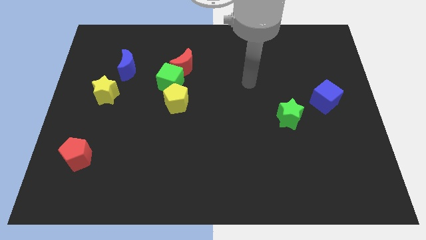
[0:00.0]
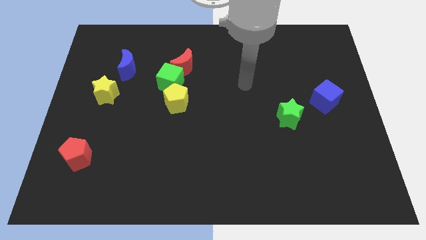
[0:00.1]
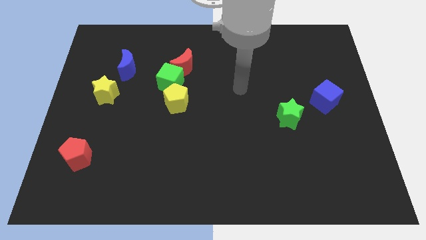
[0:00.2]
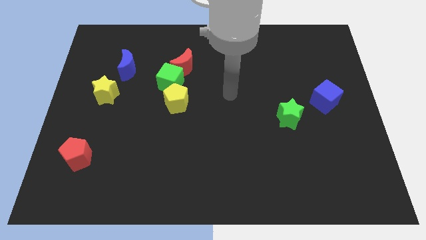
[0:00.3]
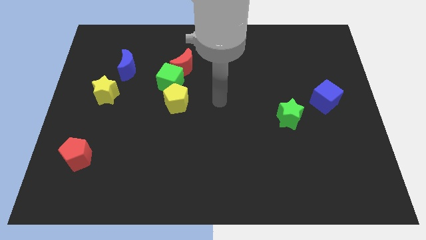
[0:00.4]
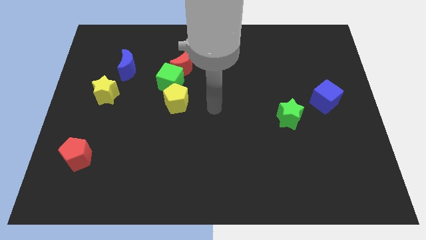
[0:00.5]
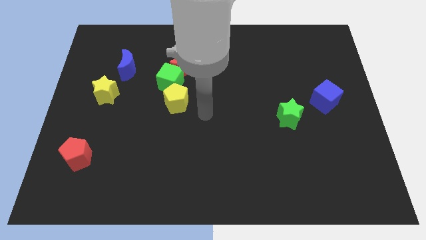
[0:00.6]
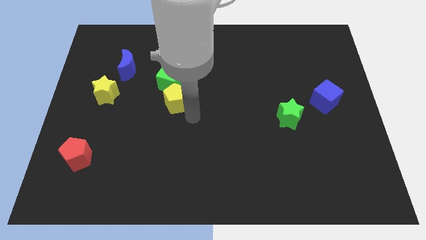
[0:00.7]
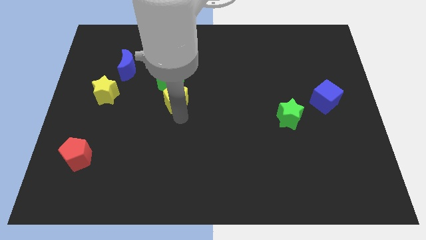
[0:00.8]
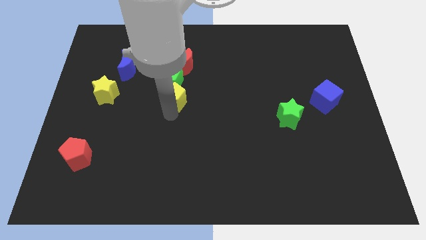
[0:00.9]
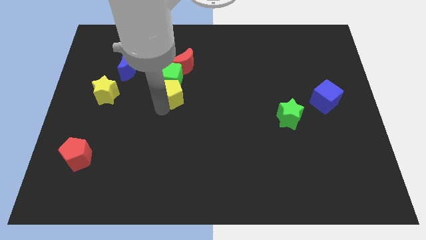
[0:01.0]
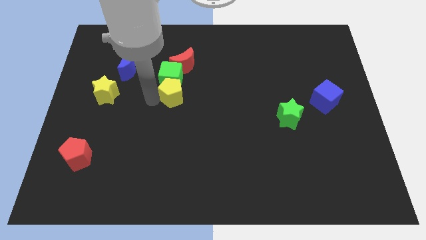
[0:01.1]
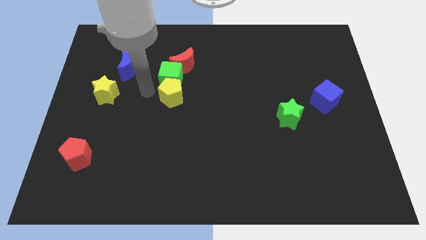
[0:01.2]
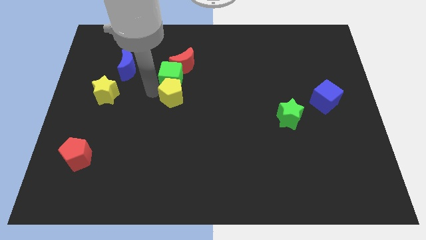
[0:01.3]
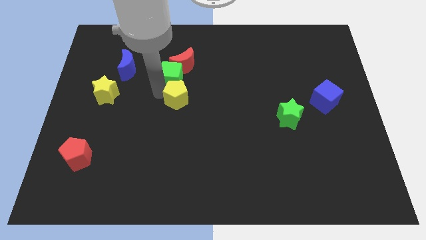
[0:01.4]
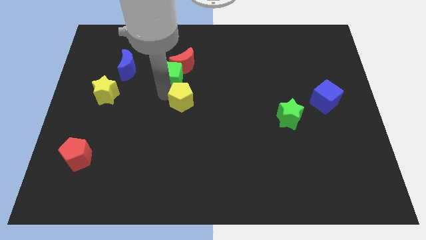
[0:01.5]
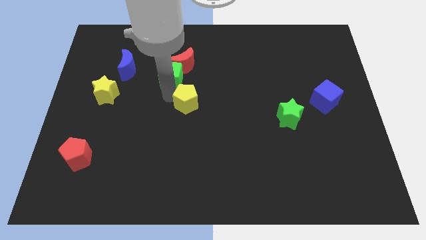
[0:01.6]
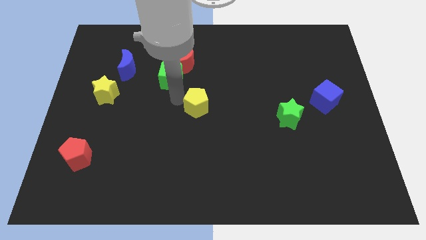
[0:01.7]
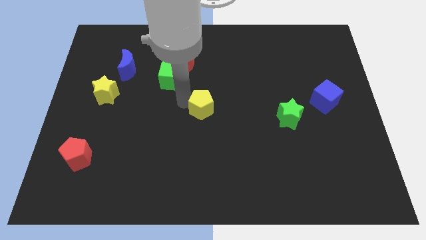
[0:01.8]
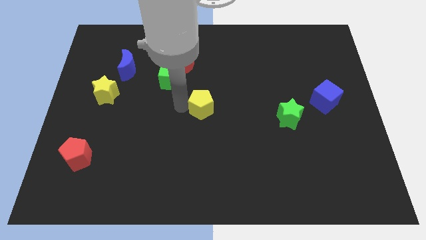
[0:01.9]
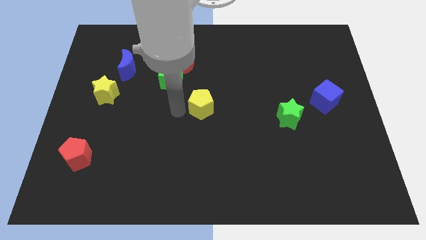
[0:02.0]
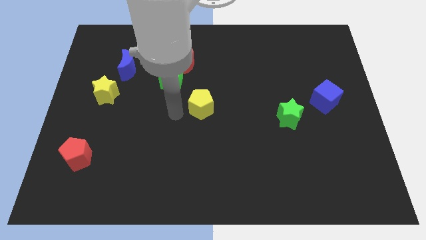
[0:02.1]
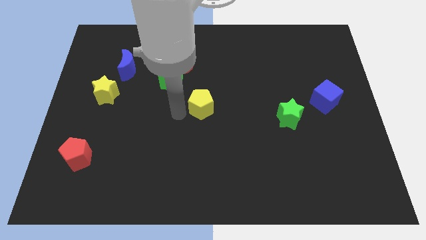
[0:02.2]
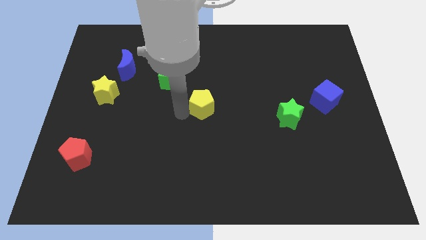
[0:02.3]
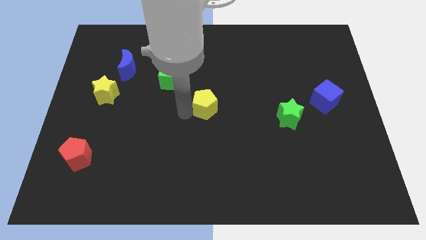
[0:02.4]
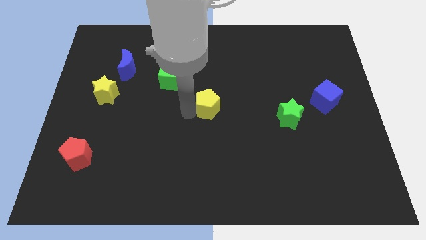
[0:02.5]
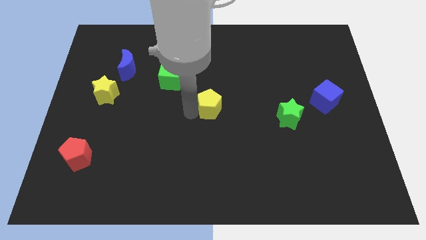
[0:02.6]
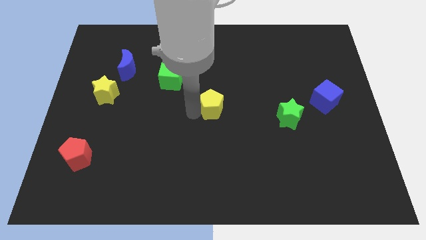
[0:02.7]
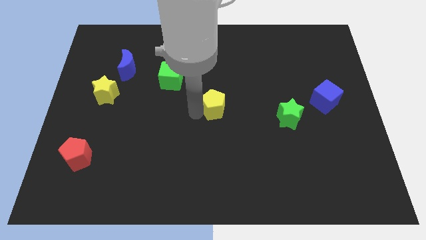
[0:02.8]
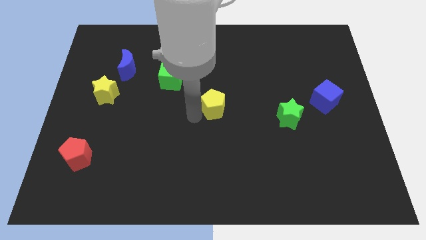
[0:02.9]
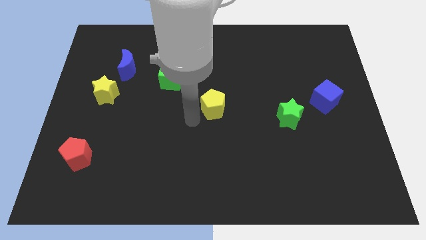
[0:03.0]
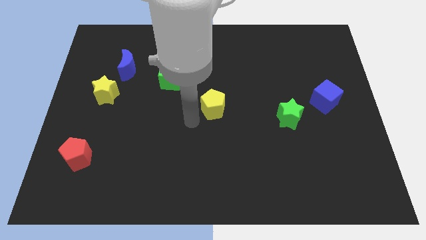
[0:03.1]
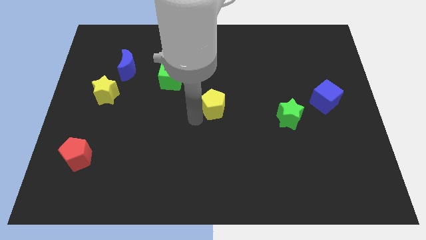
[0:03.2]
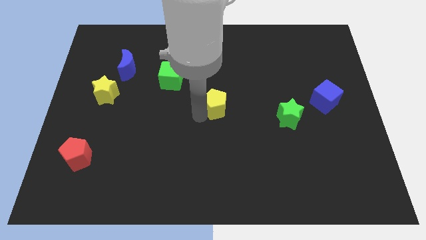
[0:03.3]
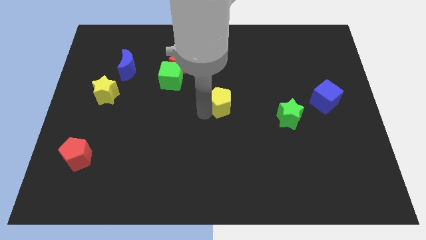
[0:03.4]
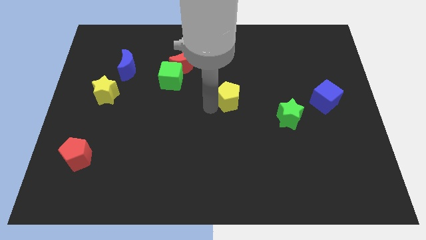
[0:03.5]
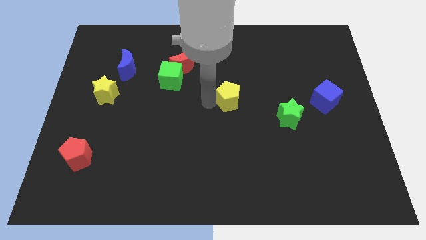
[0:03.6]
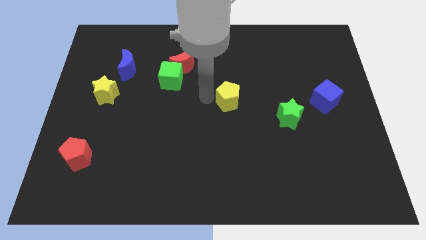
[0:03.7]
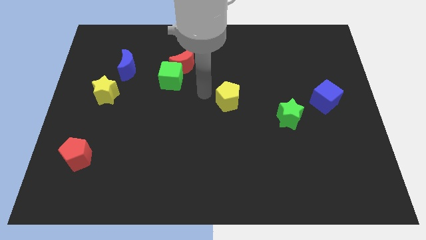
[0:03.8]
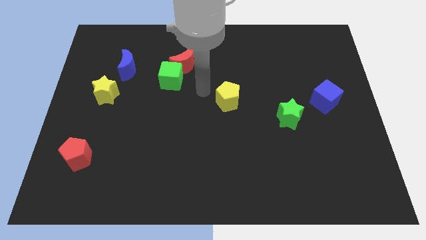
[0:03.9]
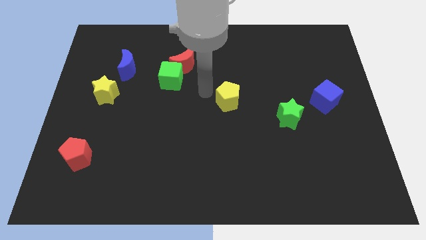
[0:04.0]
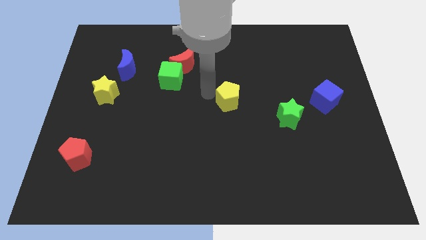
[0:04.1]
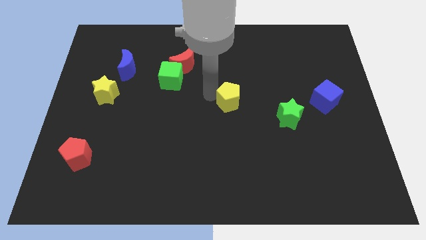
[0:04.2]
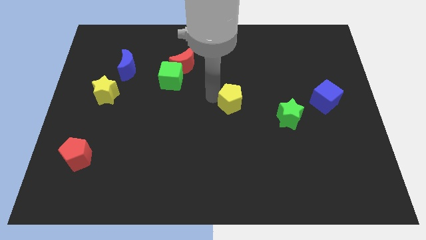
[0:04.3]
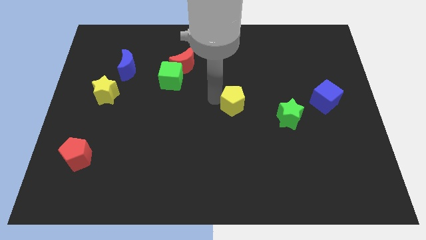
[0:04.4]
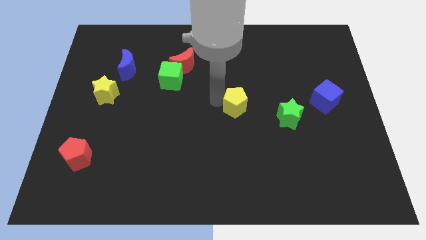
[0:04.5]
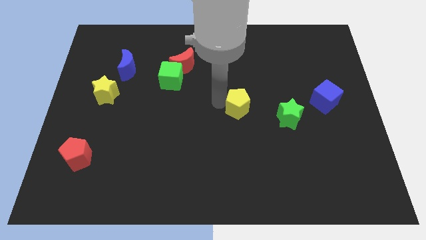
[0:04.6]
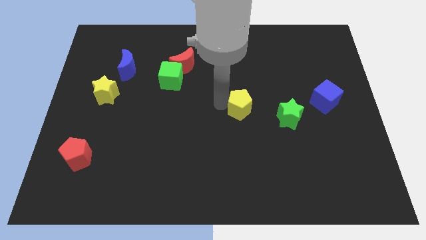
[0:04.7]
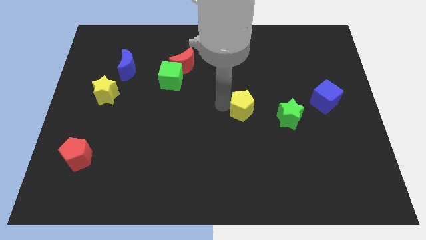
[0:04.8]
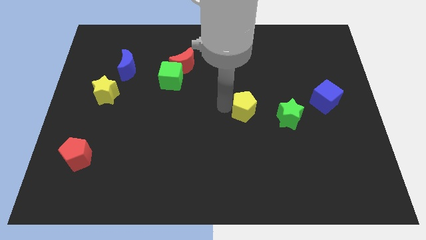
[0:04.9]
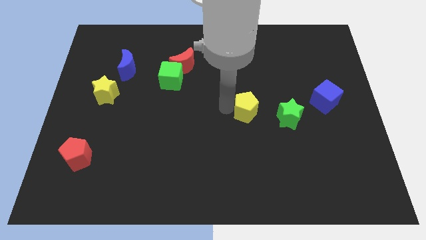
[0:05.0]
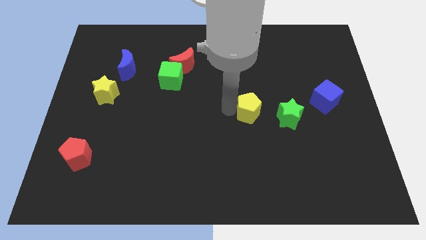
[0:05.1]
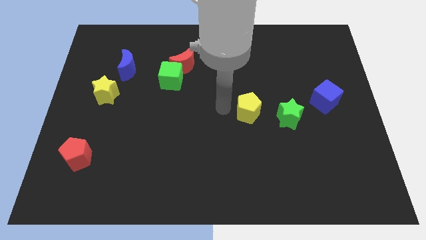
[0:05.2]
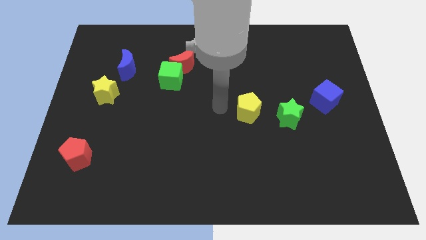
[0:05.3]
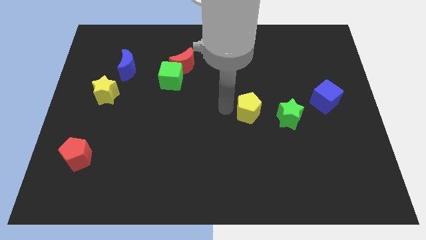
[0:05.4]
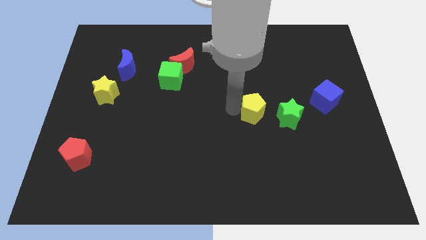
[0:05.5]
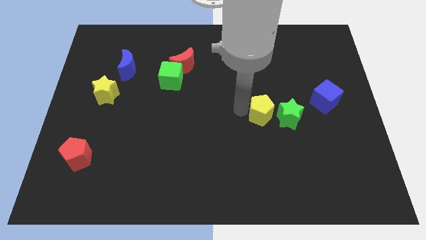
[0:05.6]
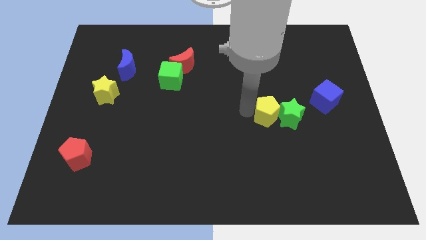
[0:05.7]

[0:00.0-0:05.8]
move the yellow pentagon close to the green star

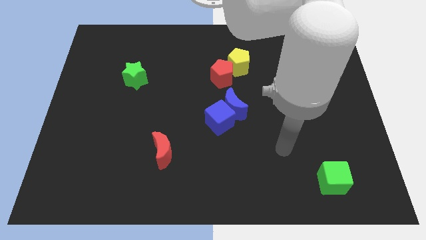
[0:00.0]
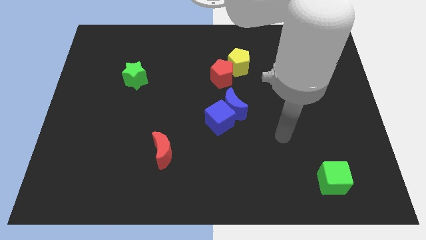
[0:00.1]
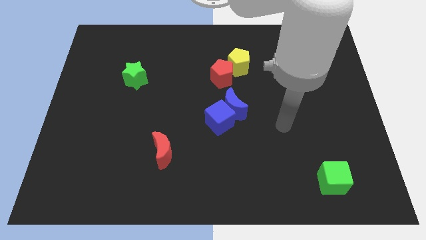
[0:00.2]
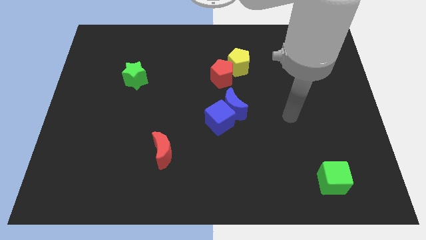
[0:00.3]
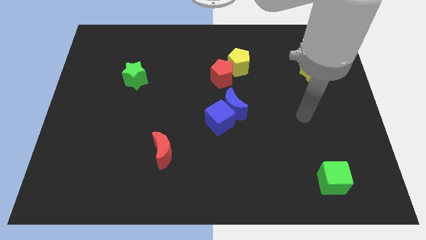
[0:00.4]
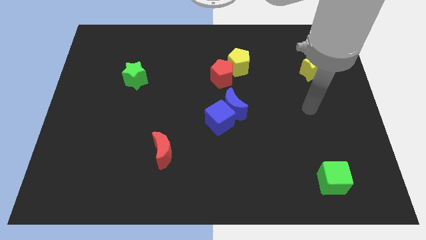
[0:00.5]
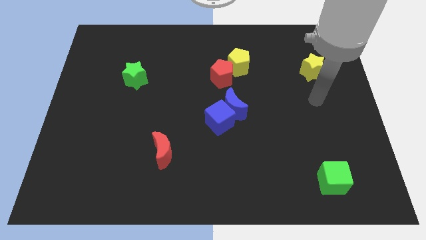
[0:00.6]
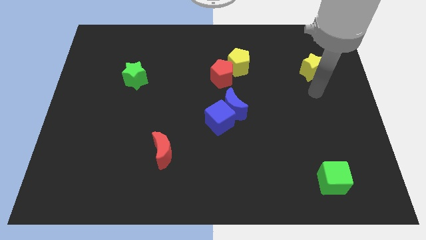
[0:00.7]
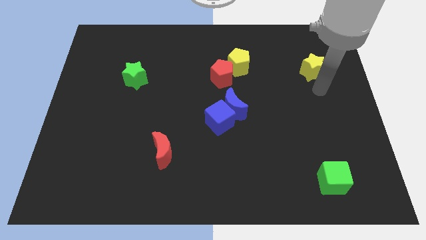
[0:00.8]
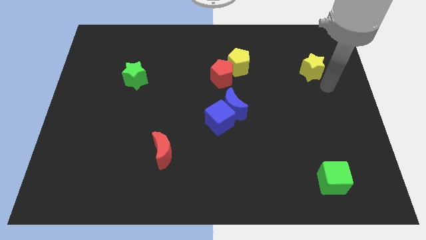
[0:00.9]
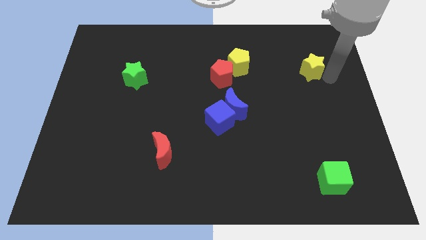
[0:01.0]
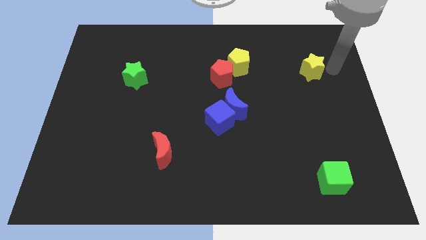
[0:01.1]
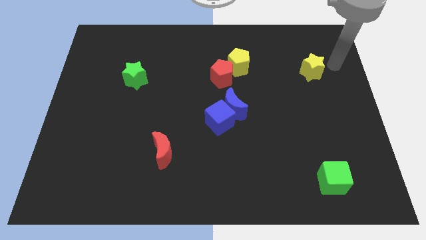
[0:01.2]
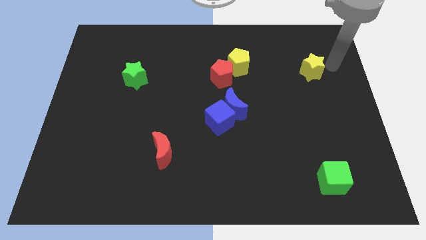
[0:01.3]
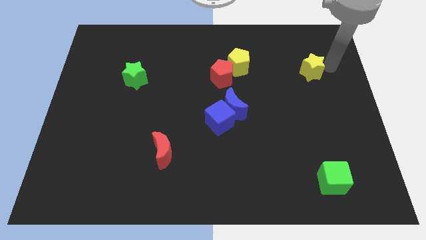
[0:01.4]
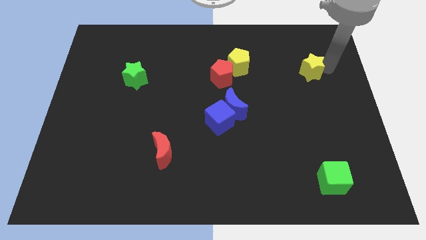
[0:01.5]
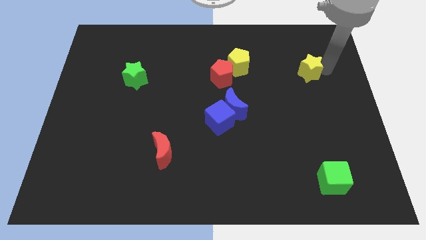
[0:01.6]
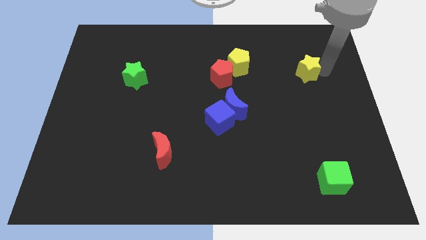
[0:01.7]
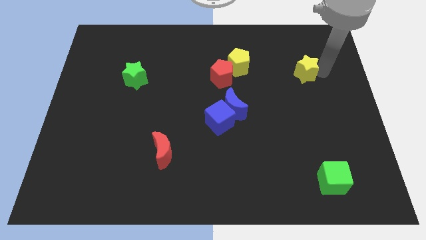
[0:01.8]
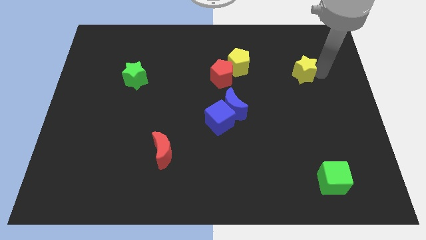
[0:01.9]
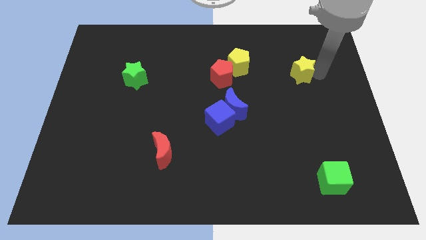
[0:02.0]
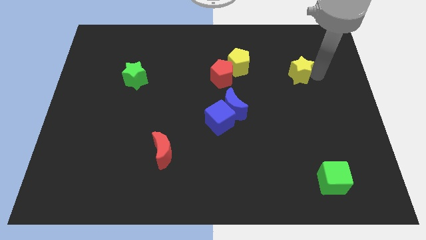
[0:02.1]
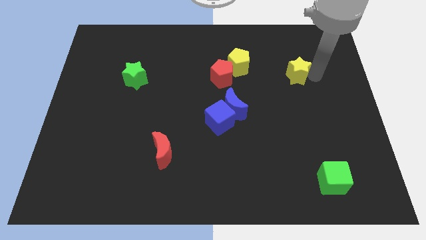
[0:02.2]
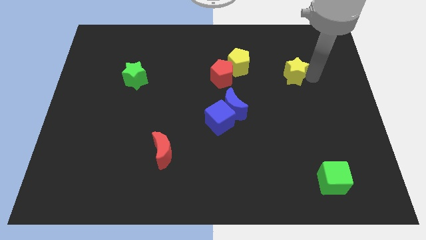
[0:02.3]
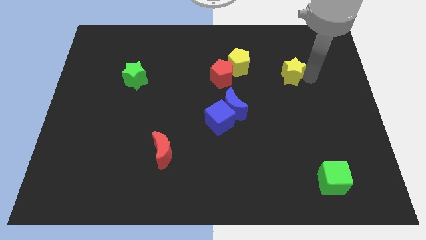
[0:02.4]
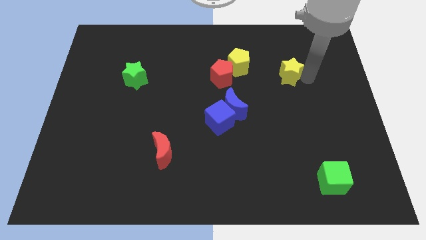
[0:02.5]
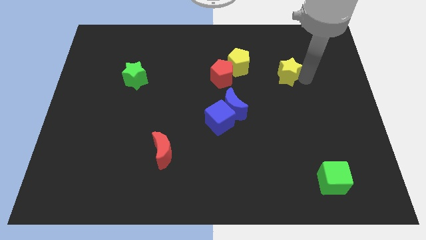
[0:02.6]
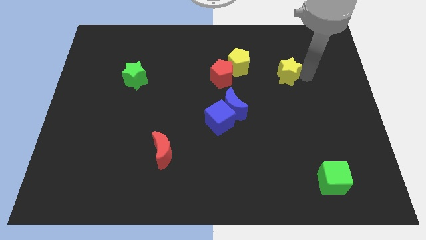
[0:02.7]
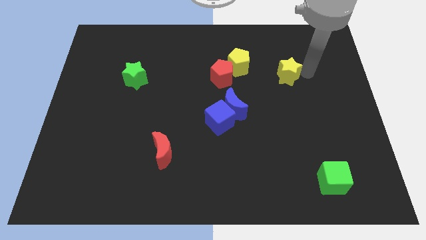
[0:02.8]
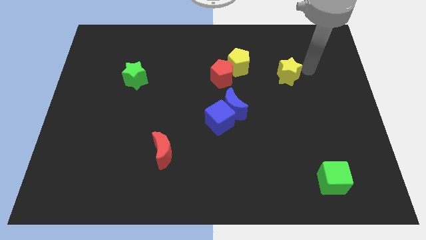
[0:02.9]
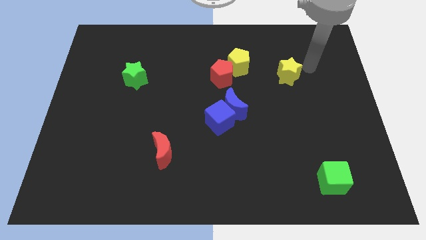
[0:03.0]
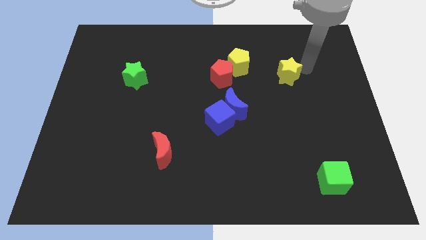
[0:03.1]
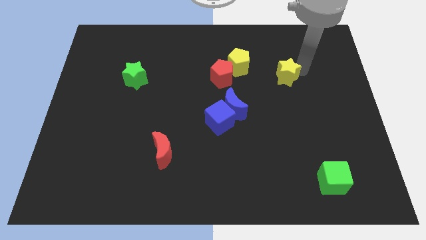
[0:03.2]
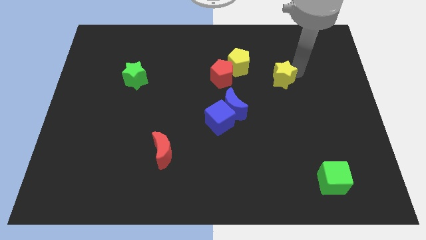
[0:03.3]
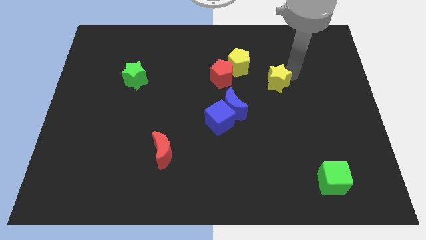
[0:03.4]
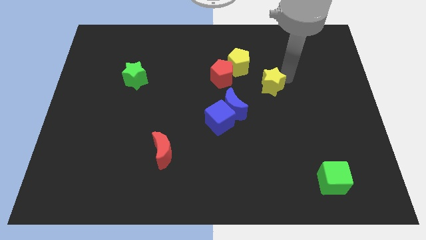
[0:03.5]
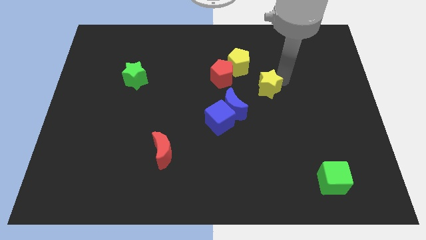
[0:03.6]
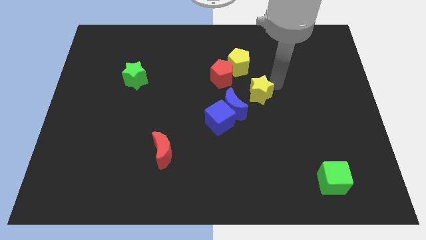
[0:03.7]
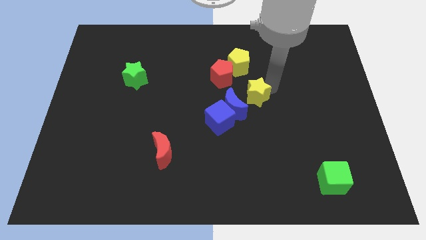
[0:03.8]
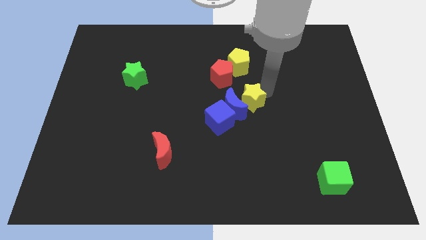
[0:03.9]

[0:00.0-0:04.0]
put the yellow star to the blue moon
